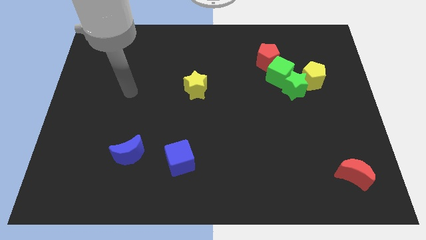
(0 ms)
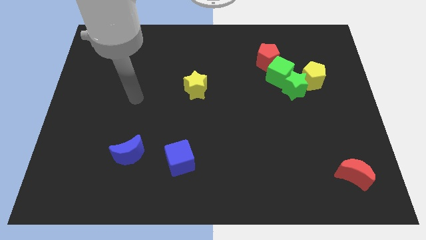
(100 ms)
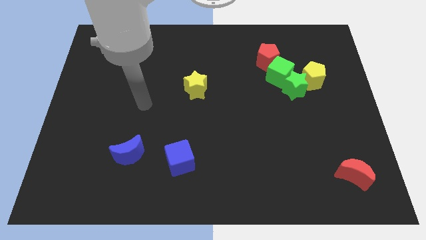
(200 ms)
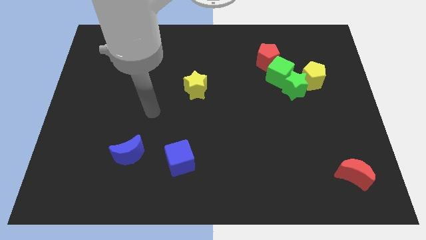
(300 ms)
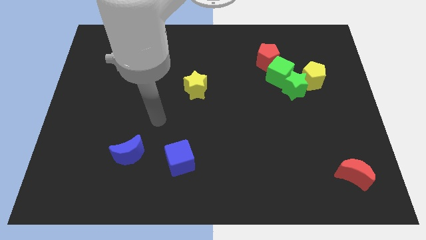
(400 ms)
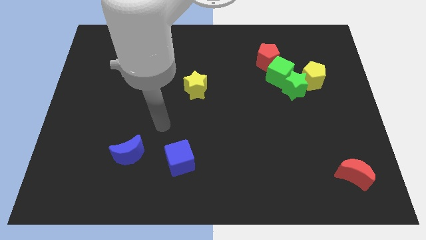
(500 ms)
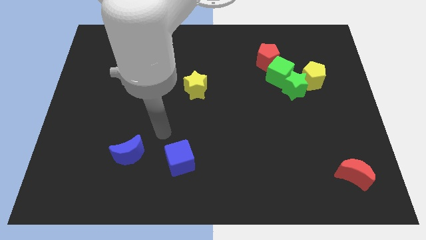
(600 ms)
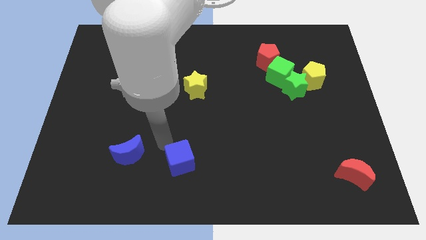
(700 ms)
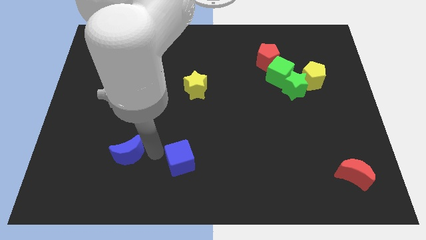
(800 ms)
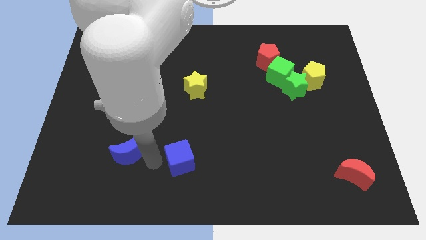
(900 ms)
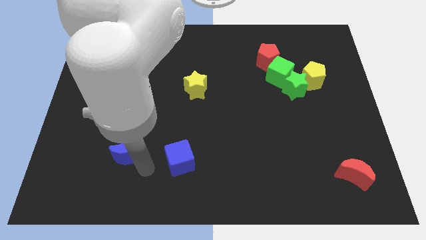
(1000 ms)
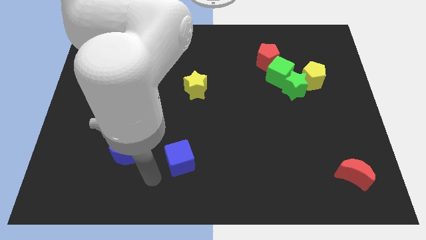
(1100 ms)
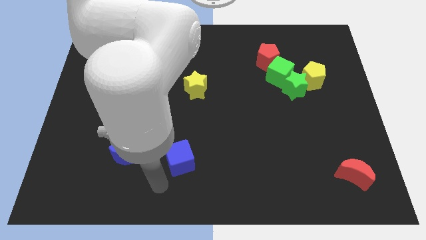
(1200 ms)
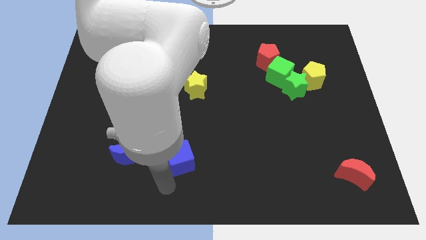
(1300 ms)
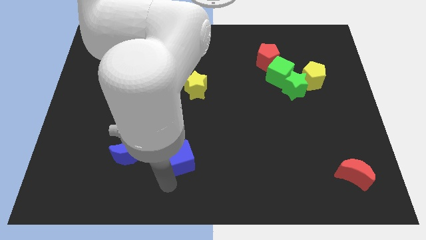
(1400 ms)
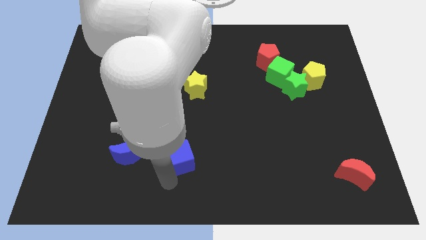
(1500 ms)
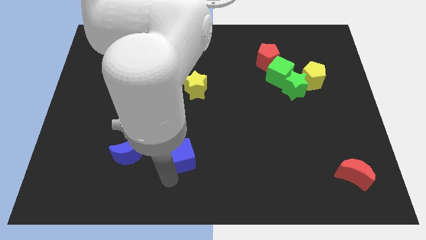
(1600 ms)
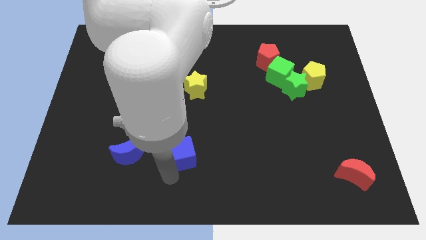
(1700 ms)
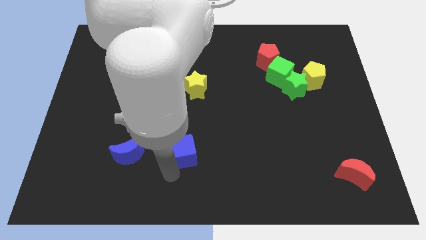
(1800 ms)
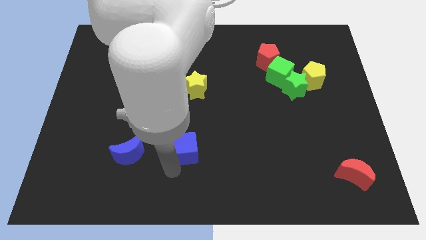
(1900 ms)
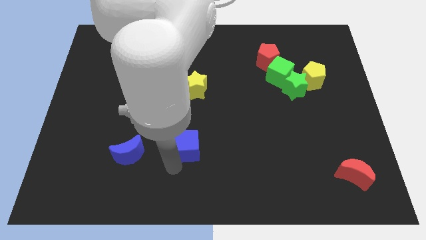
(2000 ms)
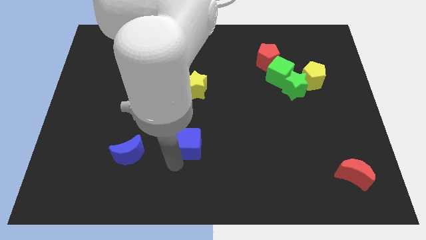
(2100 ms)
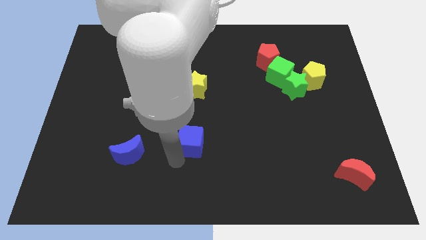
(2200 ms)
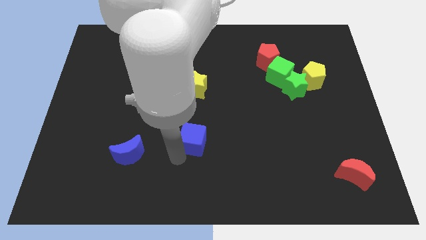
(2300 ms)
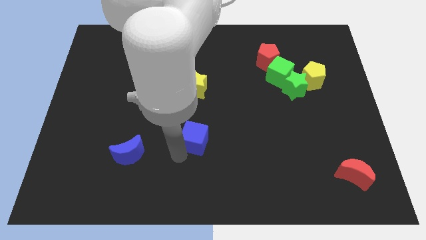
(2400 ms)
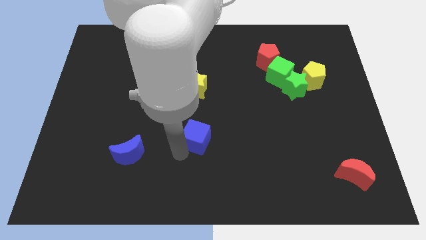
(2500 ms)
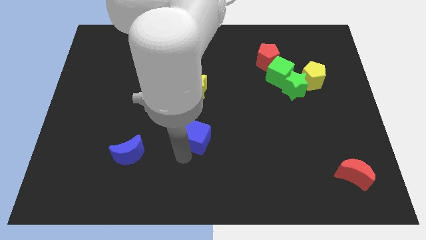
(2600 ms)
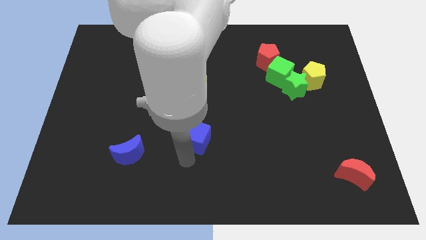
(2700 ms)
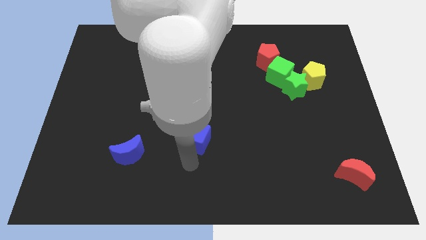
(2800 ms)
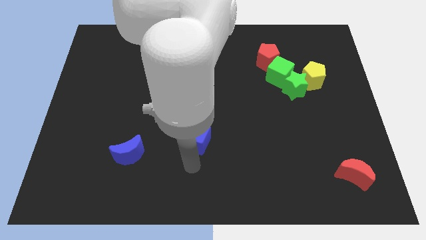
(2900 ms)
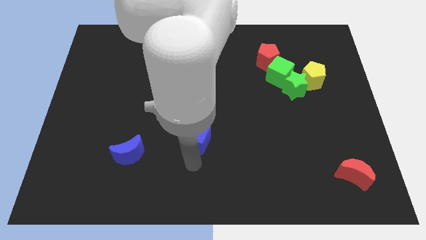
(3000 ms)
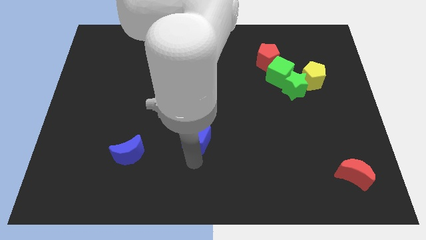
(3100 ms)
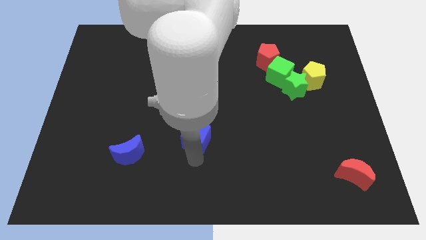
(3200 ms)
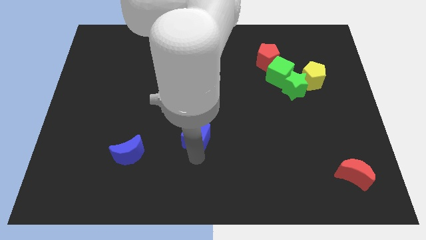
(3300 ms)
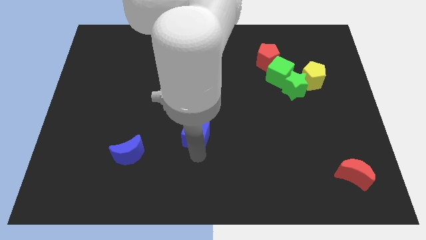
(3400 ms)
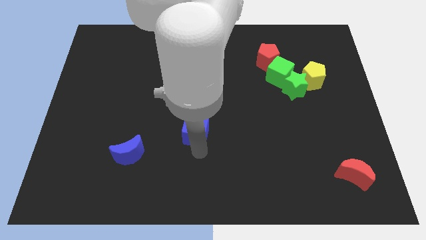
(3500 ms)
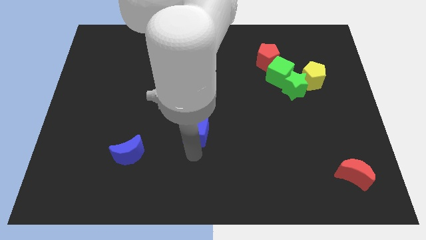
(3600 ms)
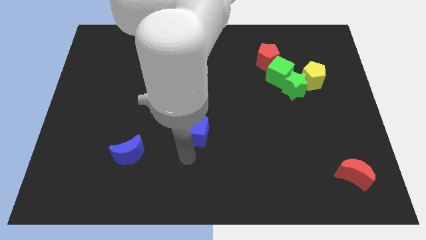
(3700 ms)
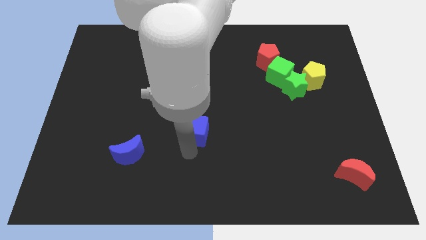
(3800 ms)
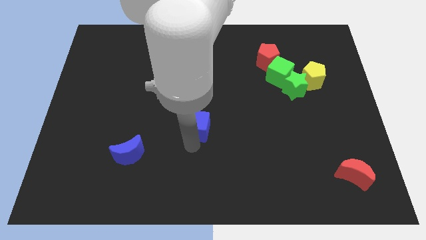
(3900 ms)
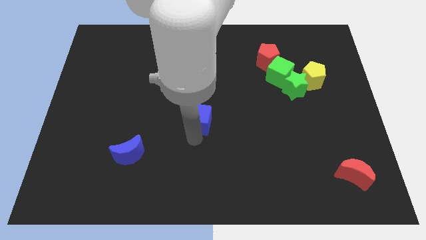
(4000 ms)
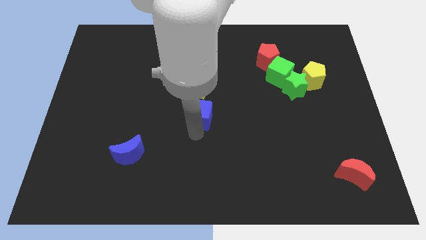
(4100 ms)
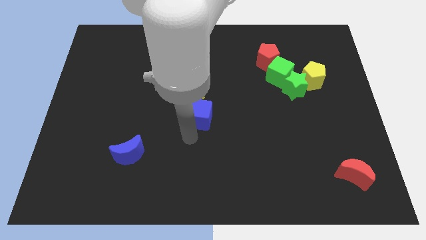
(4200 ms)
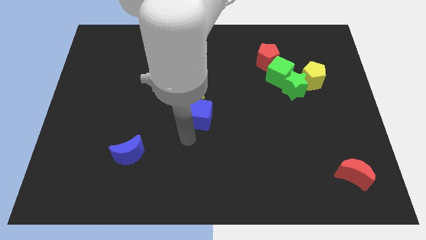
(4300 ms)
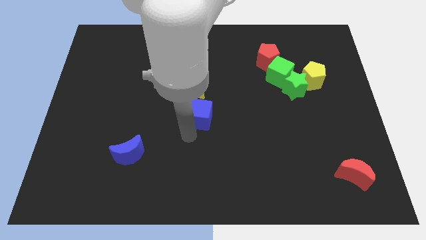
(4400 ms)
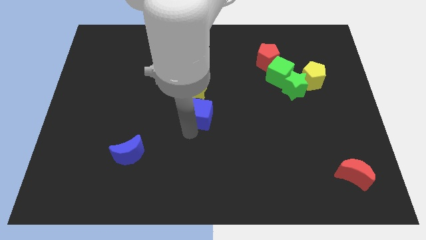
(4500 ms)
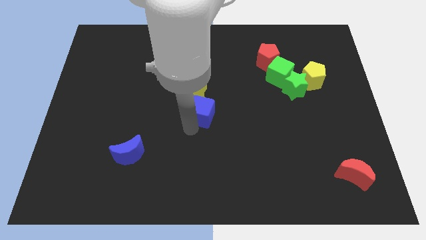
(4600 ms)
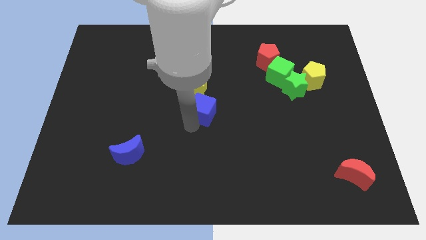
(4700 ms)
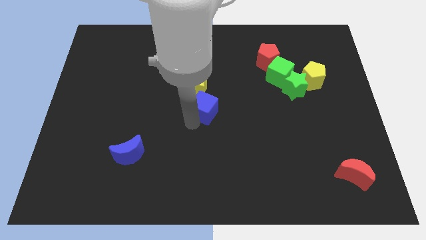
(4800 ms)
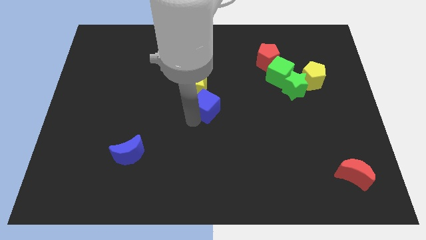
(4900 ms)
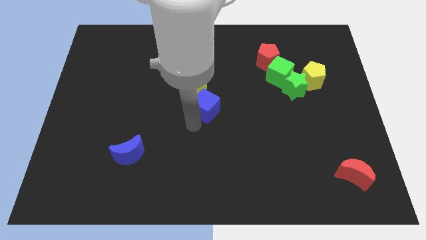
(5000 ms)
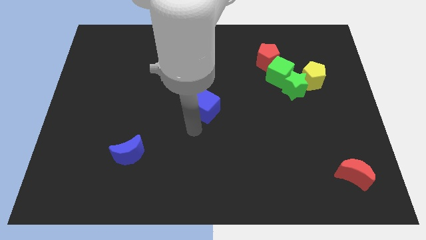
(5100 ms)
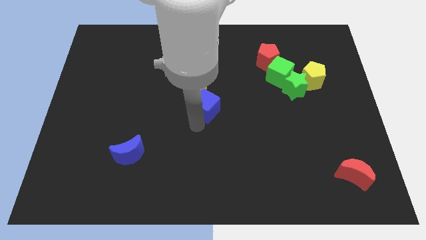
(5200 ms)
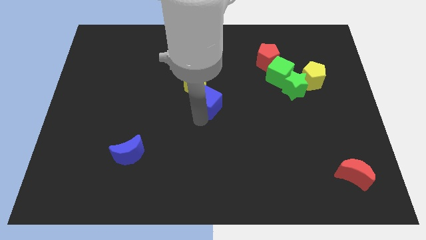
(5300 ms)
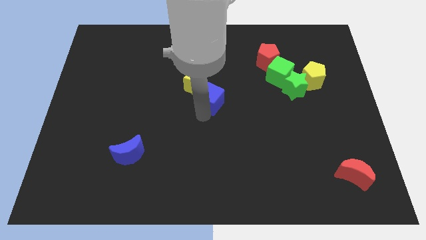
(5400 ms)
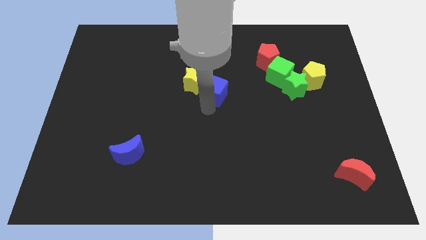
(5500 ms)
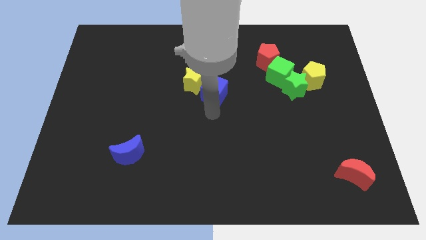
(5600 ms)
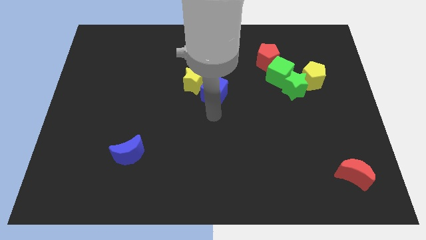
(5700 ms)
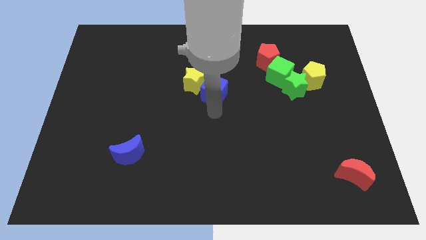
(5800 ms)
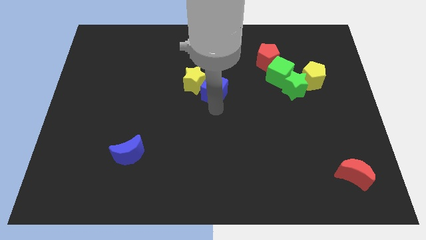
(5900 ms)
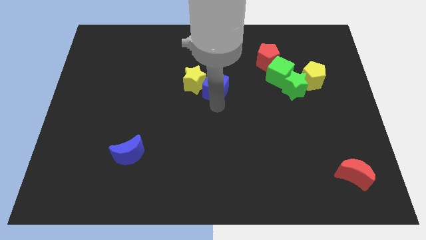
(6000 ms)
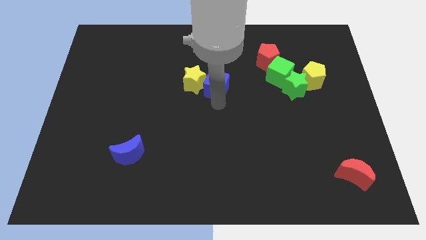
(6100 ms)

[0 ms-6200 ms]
push the blue cube to the top right side of the yellow star
